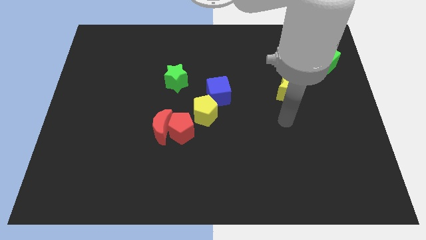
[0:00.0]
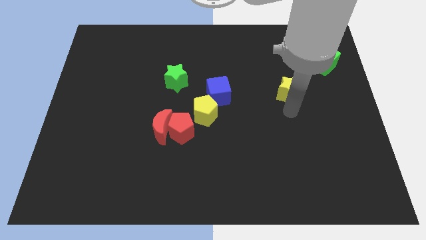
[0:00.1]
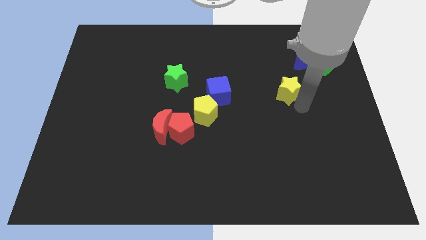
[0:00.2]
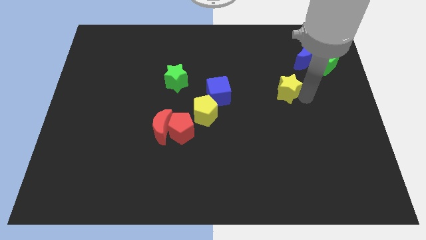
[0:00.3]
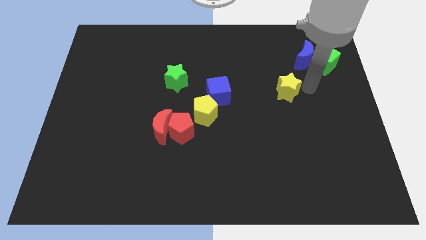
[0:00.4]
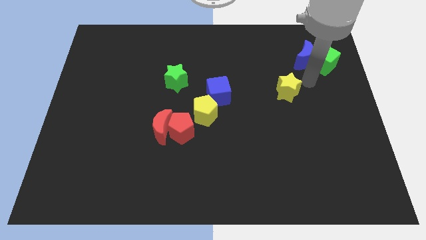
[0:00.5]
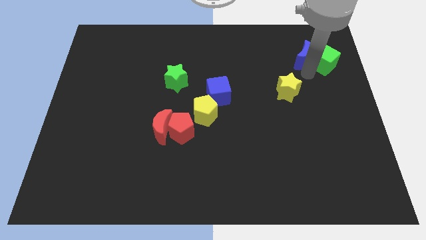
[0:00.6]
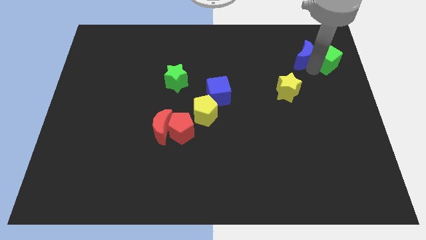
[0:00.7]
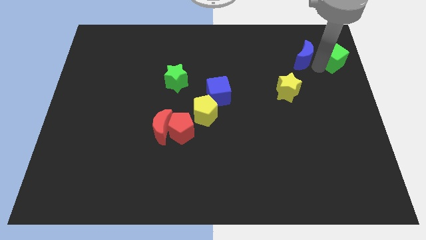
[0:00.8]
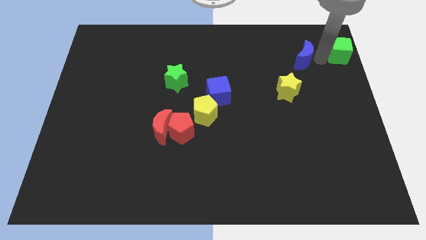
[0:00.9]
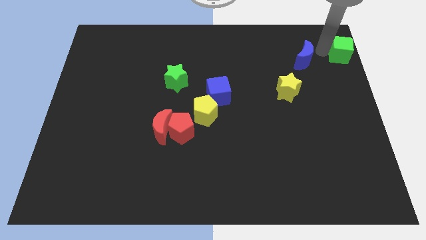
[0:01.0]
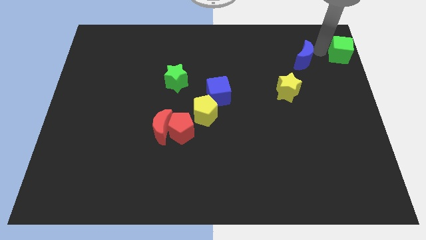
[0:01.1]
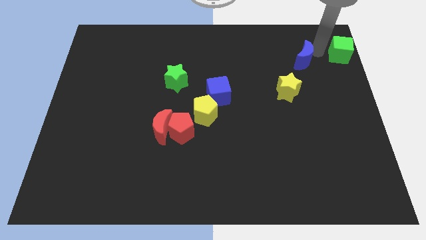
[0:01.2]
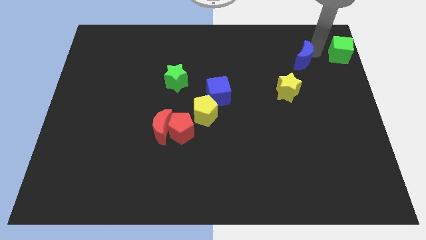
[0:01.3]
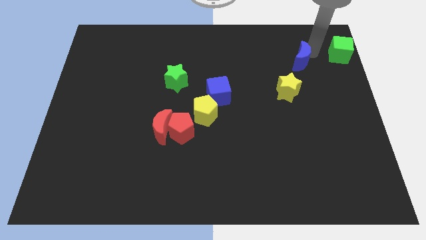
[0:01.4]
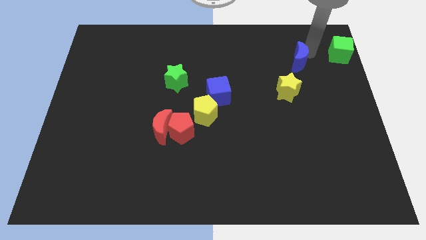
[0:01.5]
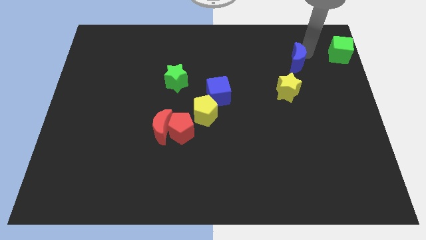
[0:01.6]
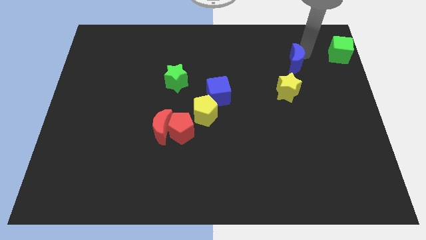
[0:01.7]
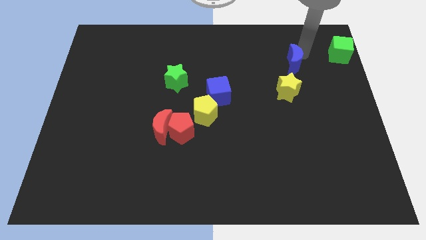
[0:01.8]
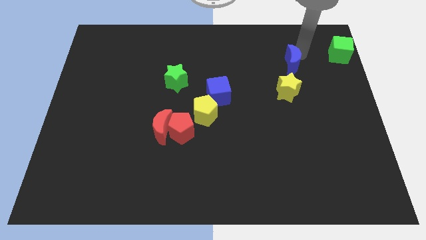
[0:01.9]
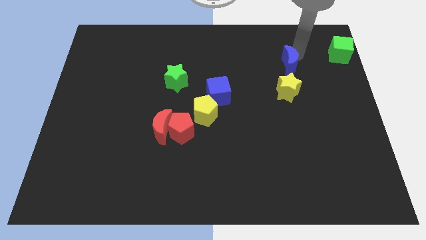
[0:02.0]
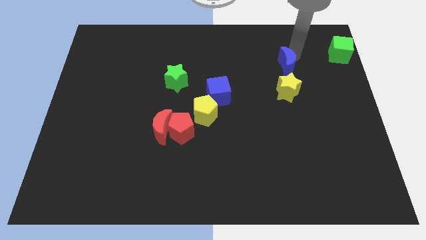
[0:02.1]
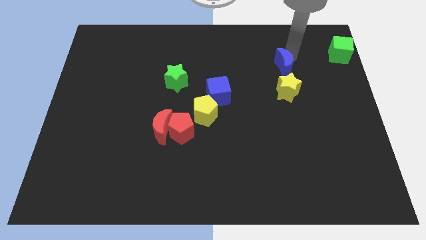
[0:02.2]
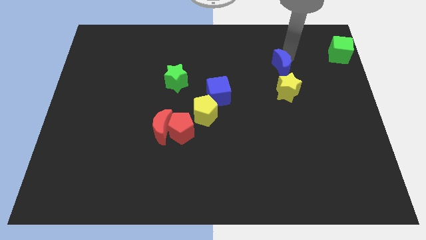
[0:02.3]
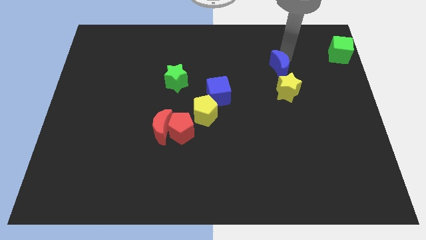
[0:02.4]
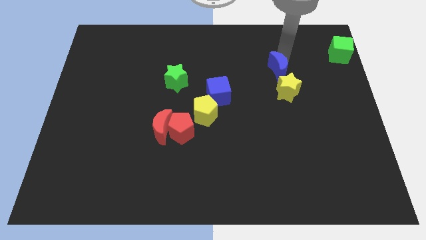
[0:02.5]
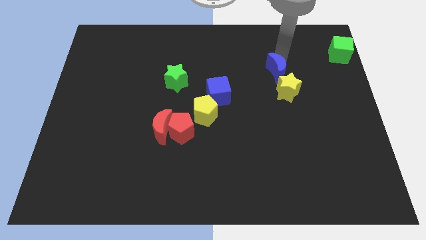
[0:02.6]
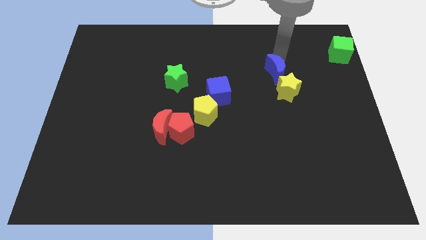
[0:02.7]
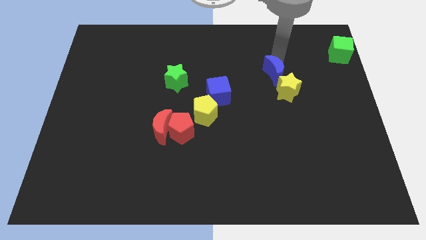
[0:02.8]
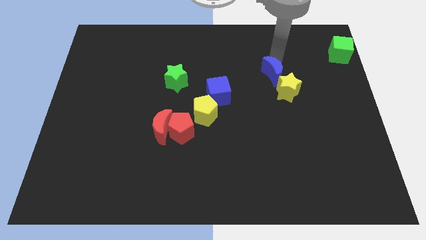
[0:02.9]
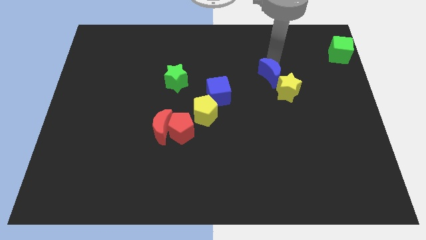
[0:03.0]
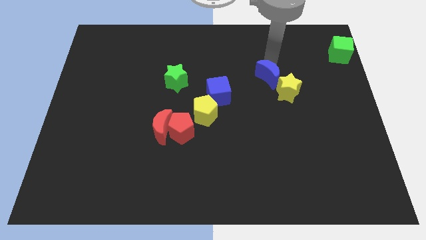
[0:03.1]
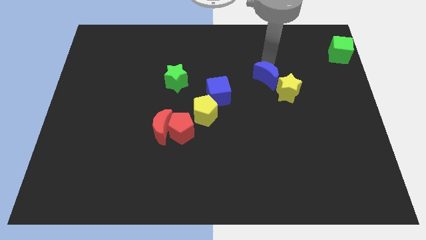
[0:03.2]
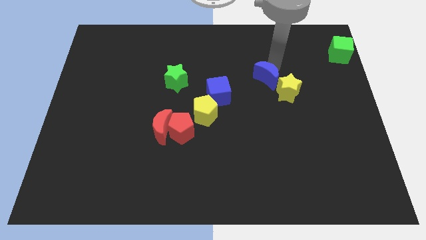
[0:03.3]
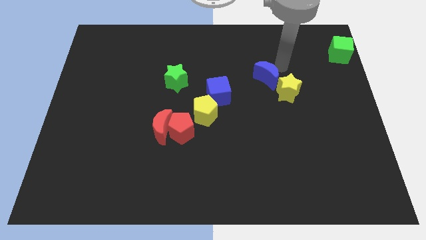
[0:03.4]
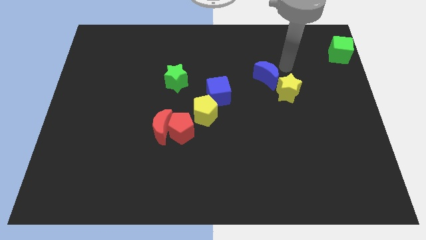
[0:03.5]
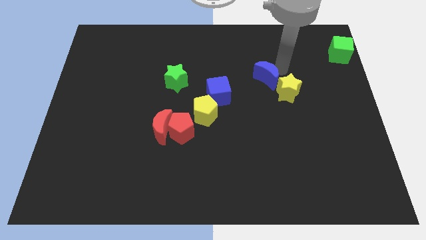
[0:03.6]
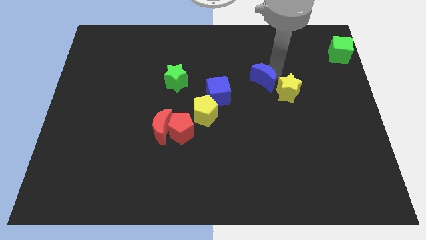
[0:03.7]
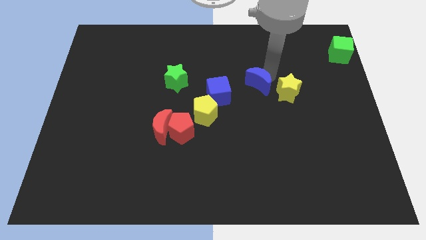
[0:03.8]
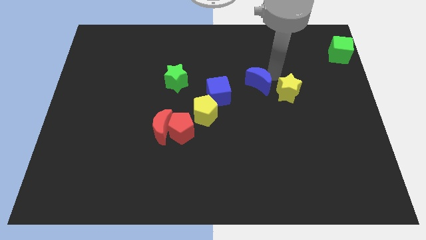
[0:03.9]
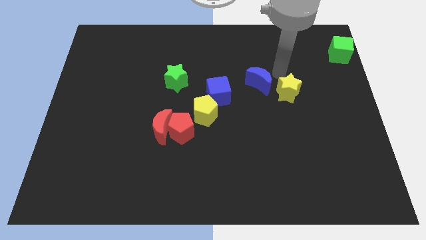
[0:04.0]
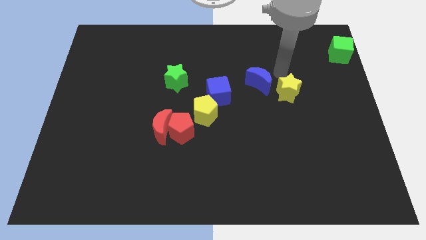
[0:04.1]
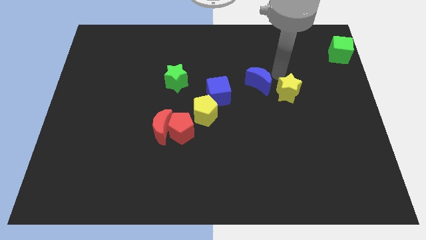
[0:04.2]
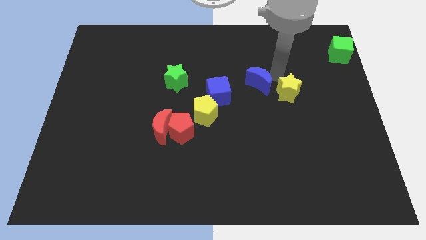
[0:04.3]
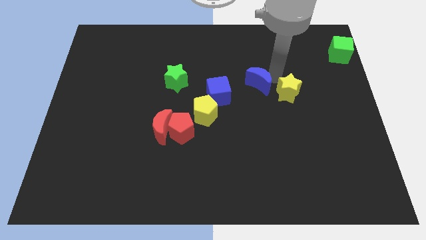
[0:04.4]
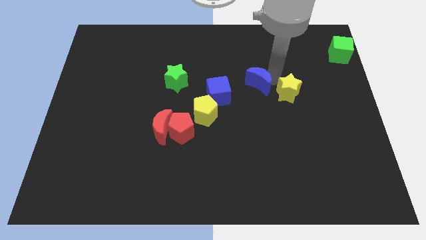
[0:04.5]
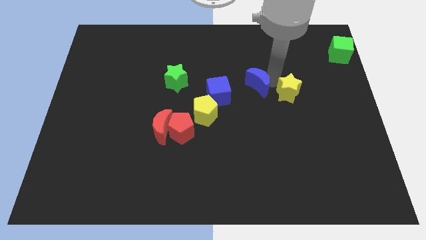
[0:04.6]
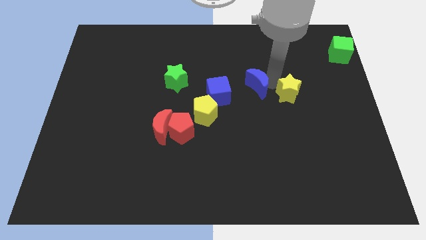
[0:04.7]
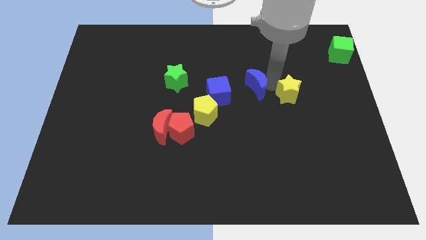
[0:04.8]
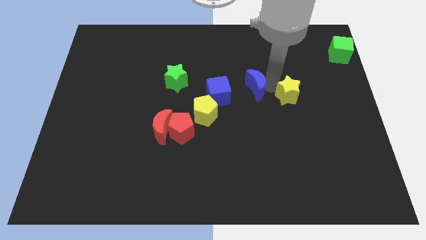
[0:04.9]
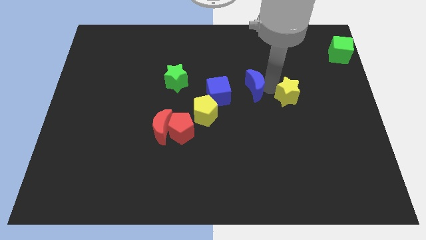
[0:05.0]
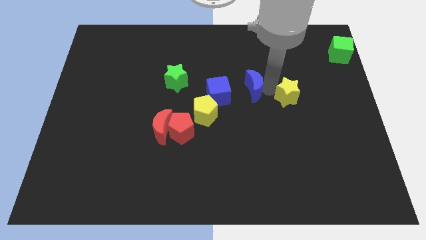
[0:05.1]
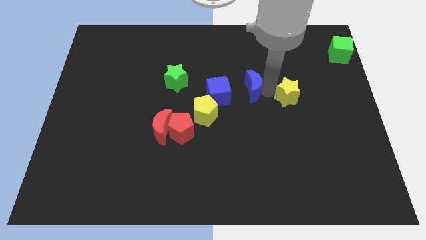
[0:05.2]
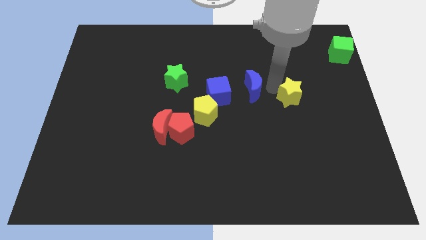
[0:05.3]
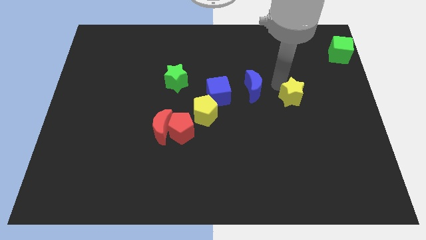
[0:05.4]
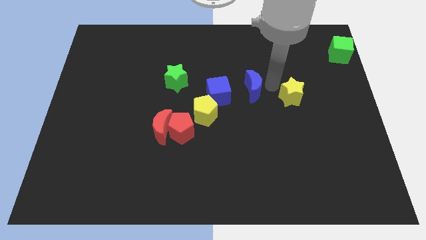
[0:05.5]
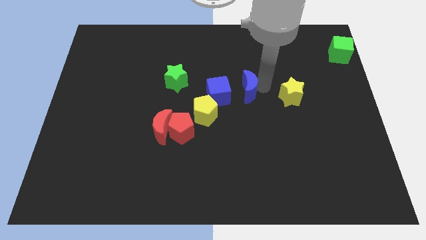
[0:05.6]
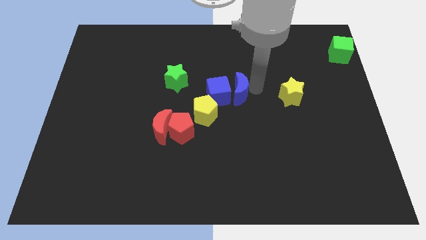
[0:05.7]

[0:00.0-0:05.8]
put the blue moon towards the blue cube

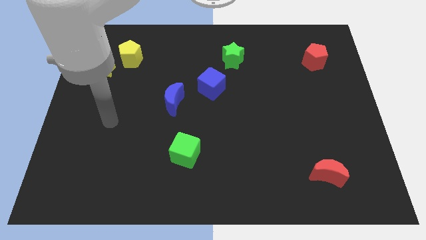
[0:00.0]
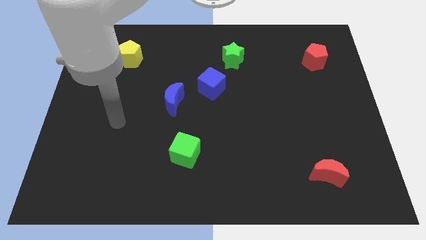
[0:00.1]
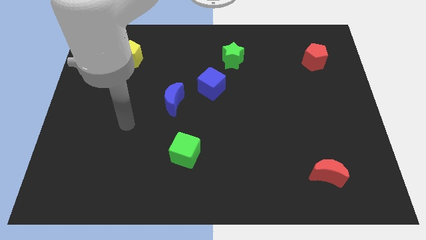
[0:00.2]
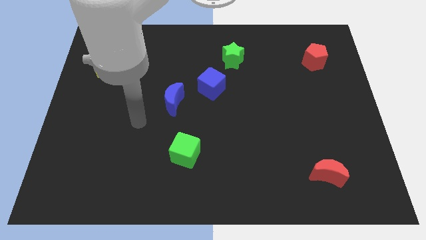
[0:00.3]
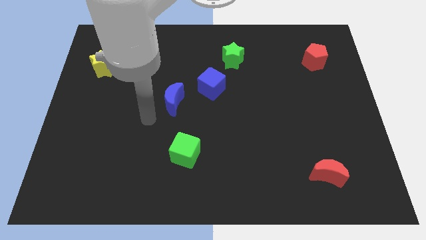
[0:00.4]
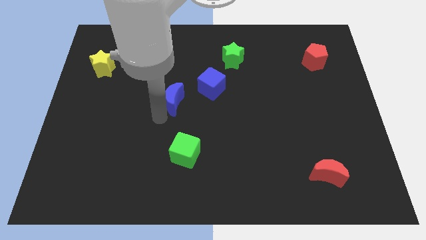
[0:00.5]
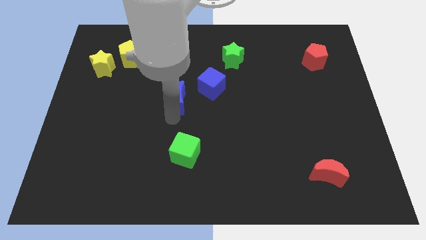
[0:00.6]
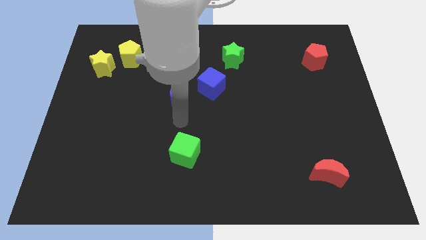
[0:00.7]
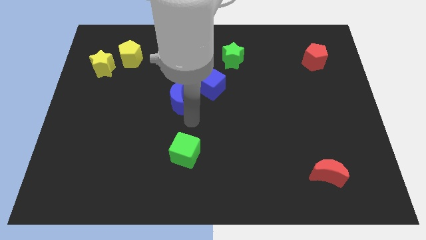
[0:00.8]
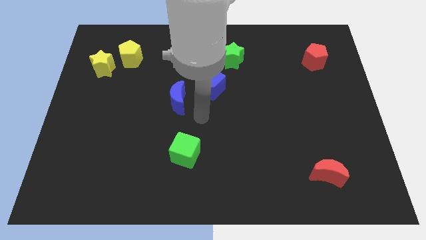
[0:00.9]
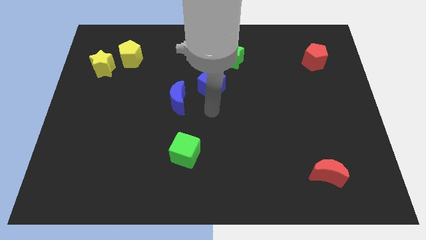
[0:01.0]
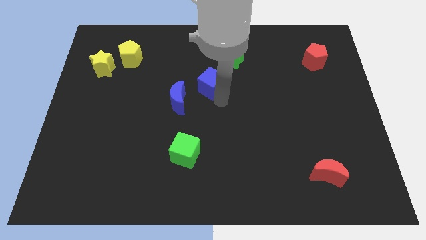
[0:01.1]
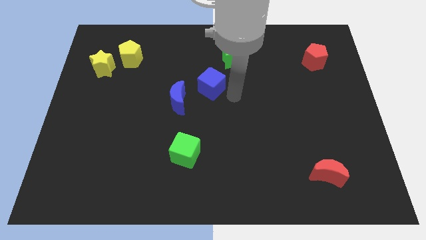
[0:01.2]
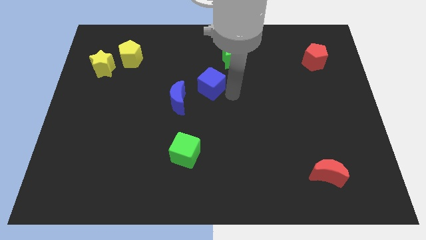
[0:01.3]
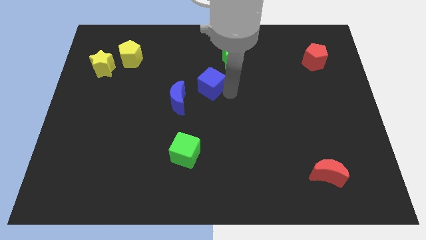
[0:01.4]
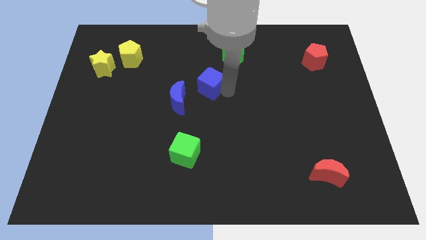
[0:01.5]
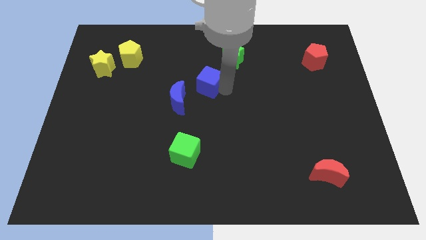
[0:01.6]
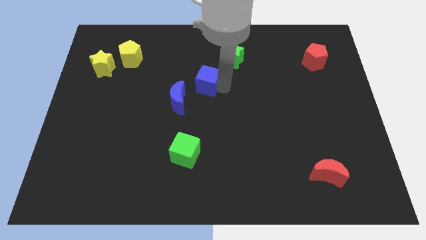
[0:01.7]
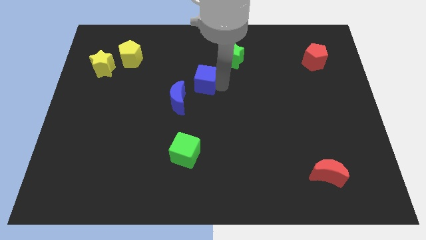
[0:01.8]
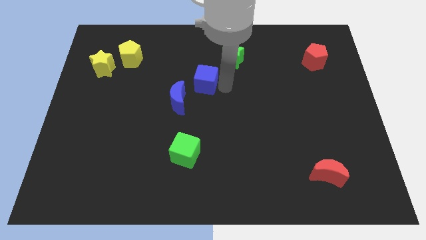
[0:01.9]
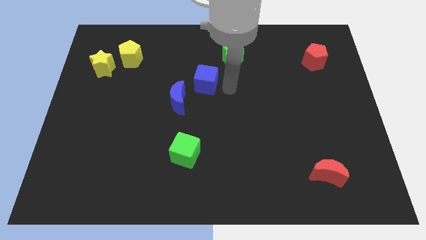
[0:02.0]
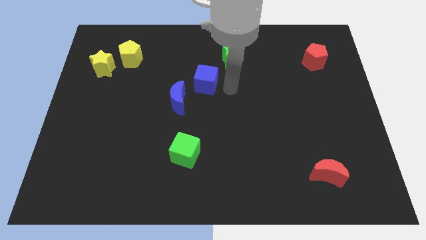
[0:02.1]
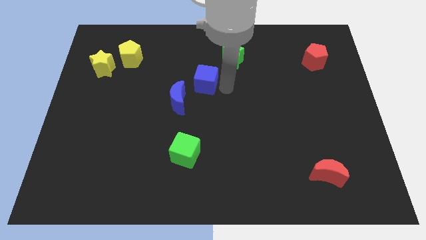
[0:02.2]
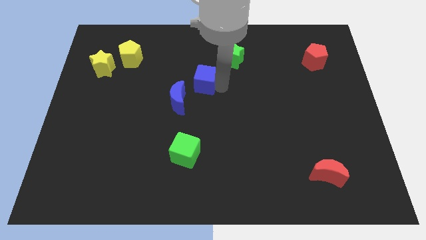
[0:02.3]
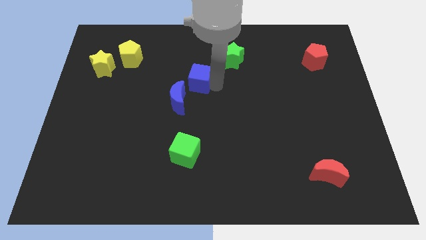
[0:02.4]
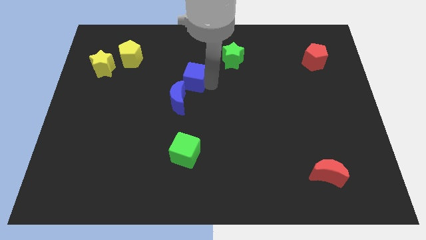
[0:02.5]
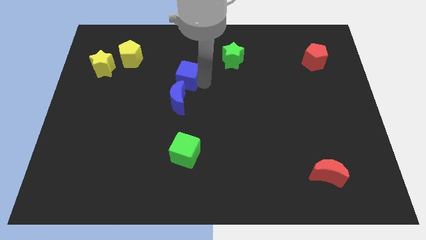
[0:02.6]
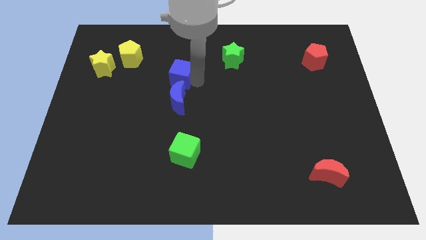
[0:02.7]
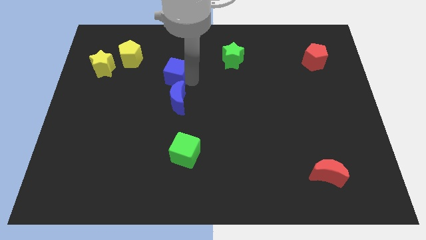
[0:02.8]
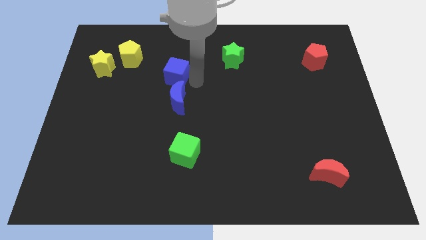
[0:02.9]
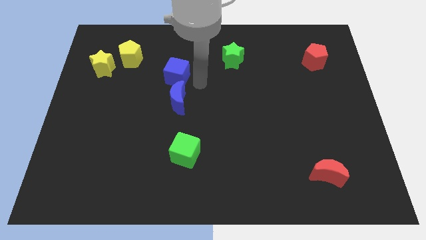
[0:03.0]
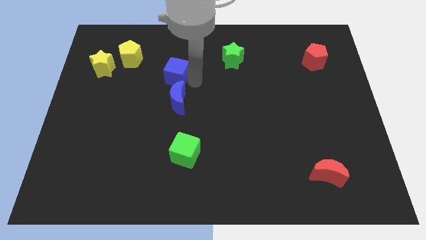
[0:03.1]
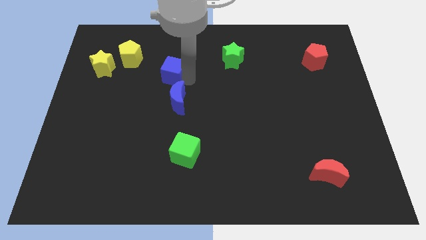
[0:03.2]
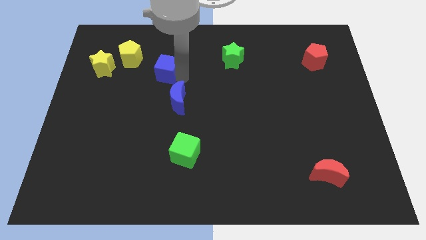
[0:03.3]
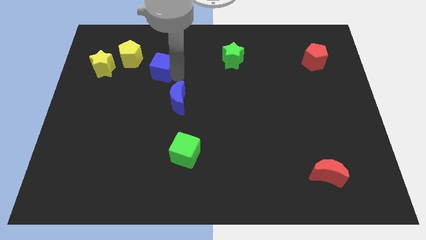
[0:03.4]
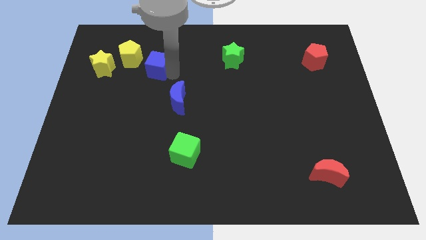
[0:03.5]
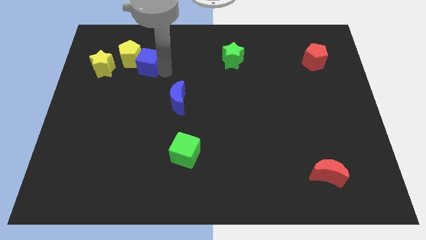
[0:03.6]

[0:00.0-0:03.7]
put the blue cube close to the yellow pentagon
